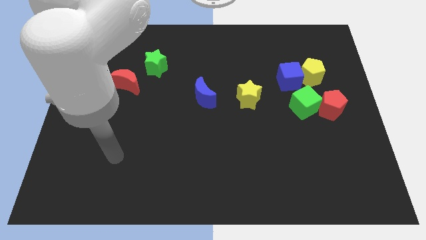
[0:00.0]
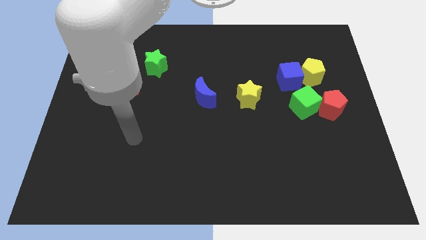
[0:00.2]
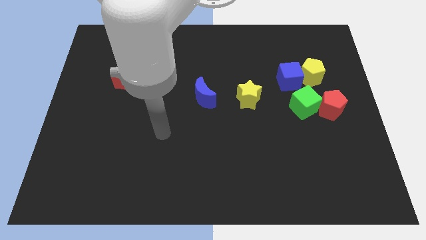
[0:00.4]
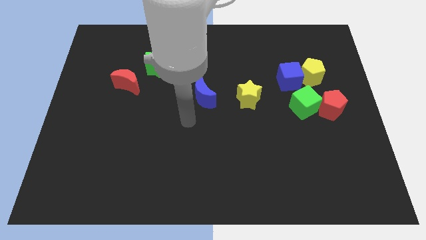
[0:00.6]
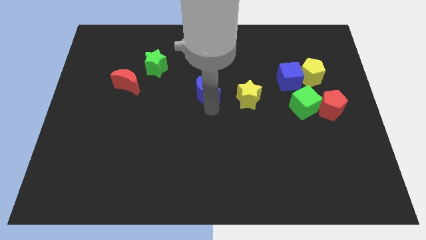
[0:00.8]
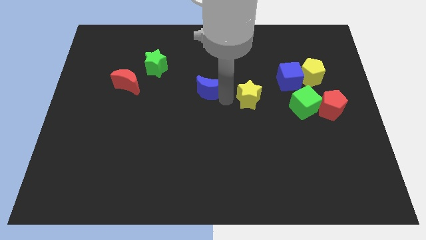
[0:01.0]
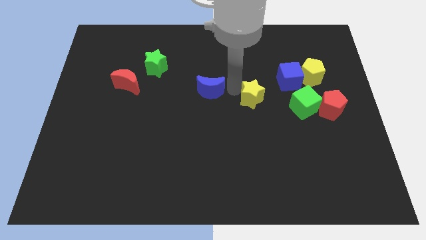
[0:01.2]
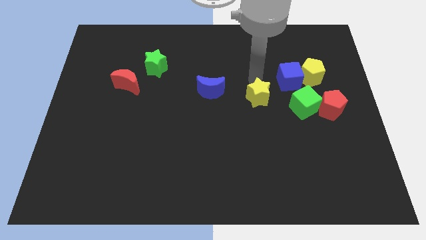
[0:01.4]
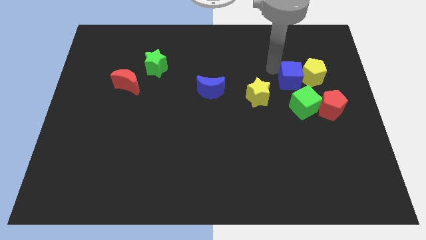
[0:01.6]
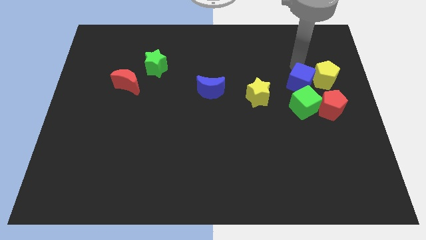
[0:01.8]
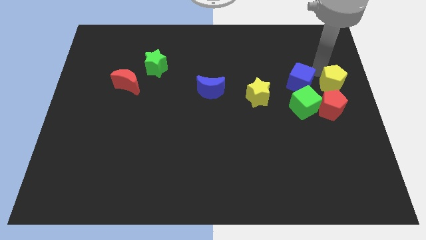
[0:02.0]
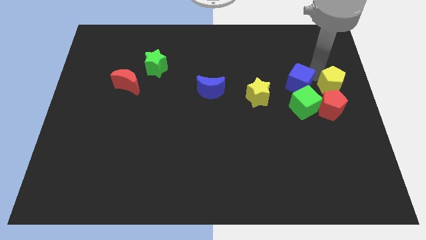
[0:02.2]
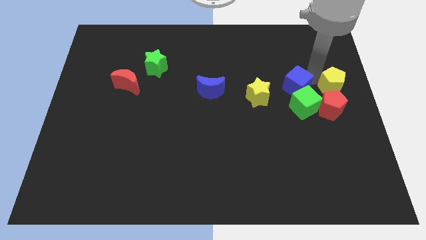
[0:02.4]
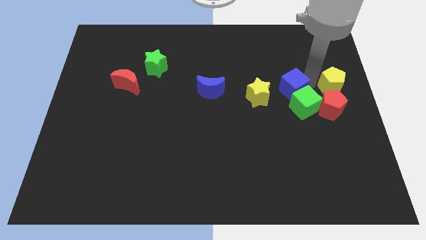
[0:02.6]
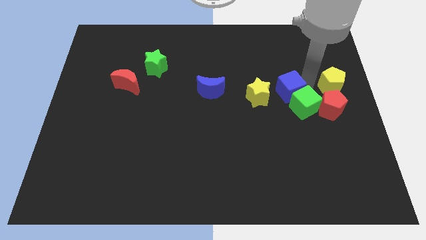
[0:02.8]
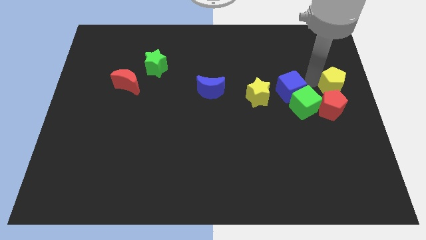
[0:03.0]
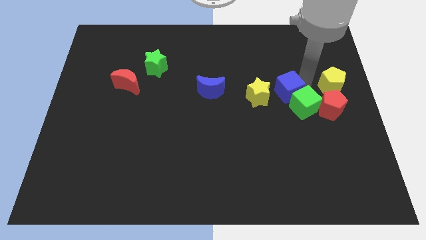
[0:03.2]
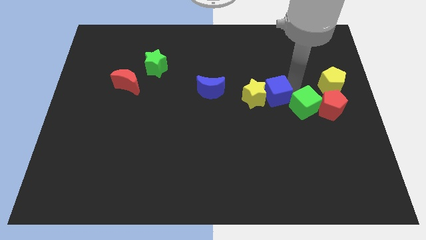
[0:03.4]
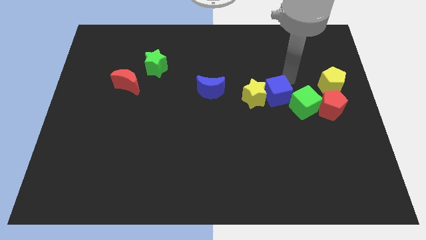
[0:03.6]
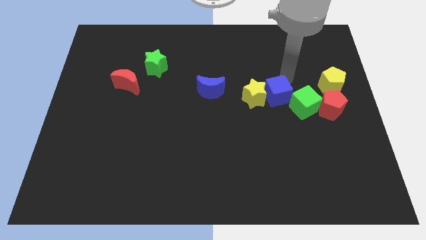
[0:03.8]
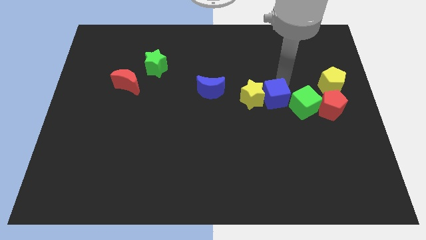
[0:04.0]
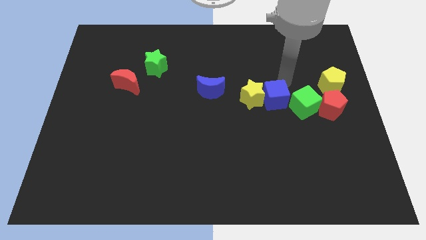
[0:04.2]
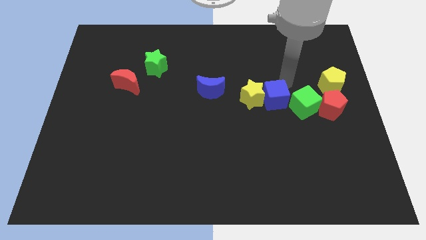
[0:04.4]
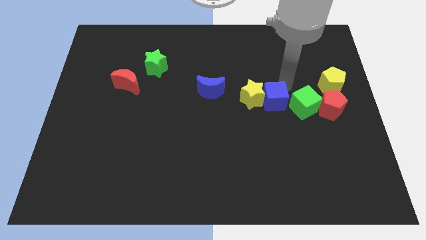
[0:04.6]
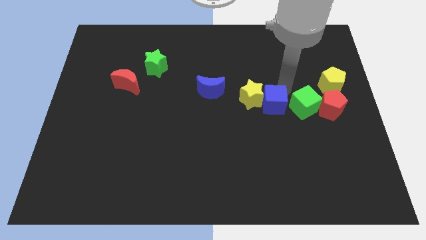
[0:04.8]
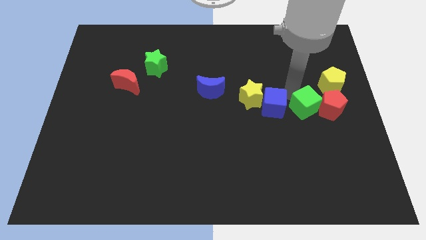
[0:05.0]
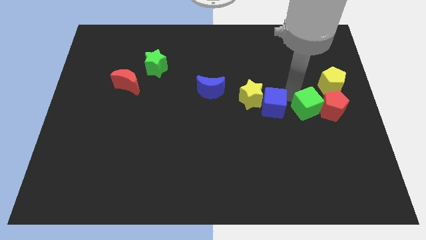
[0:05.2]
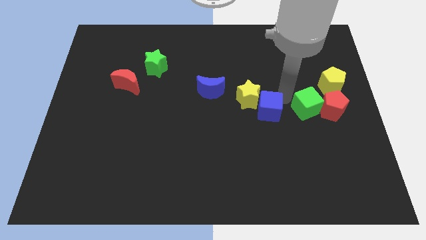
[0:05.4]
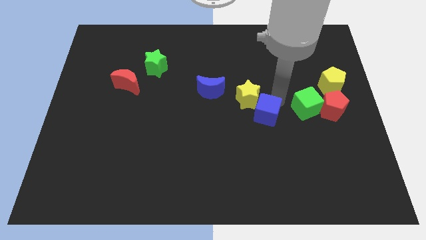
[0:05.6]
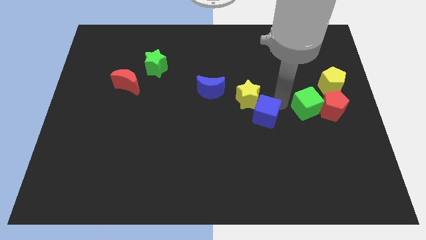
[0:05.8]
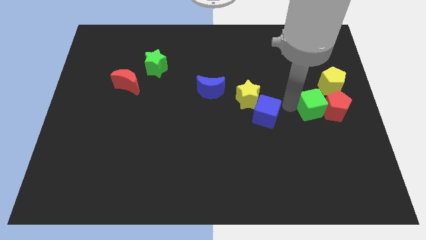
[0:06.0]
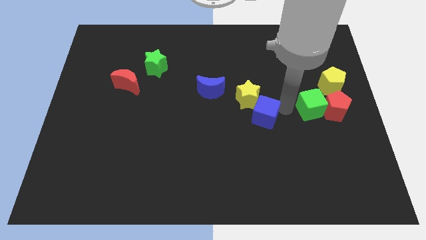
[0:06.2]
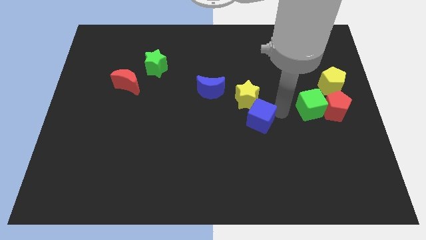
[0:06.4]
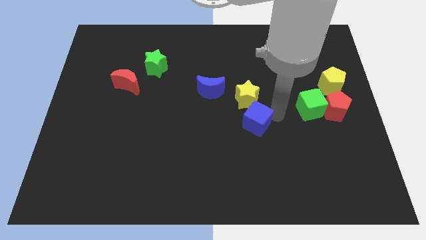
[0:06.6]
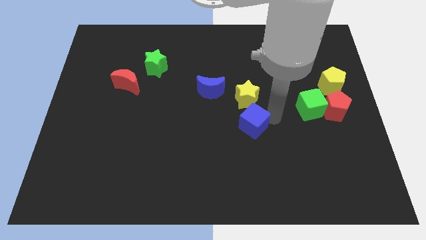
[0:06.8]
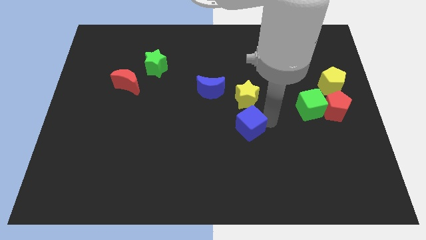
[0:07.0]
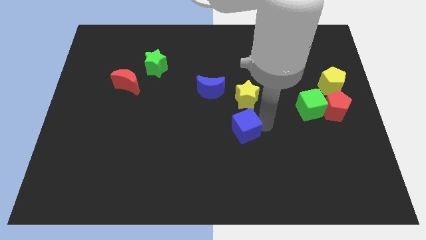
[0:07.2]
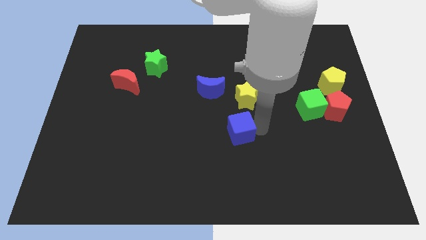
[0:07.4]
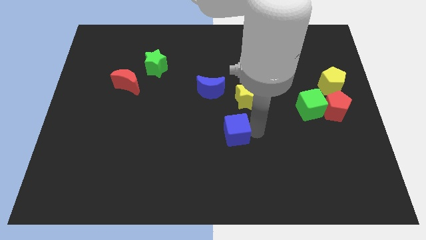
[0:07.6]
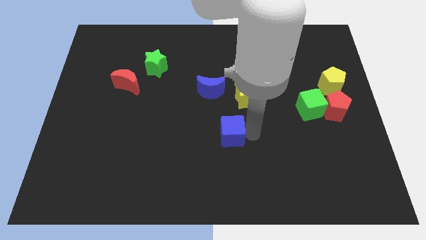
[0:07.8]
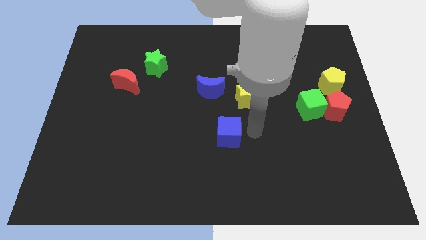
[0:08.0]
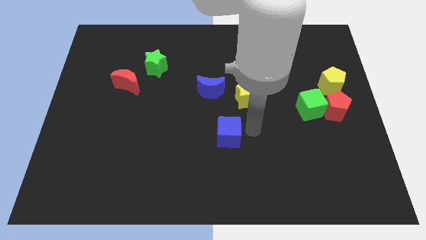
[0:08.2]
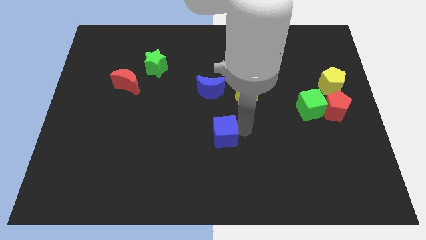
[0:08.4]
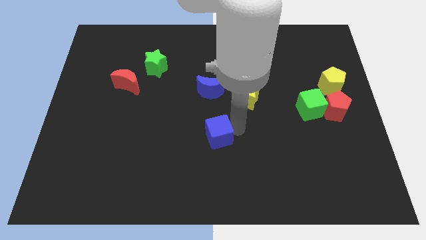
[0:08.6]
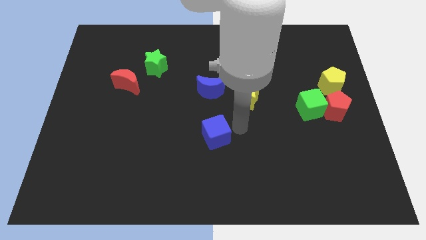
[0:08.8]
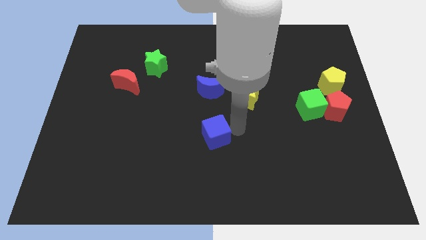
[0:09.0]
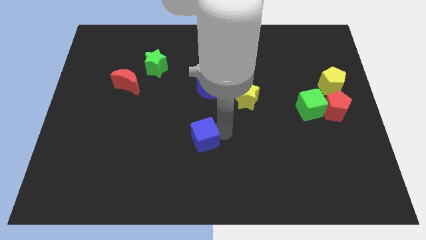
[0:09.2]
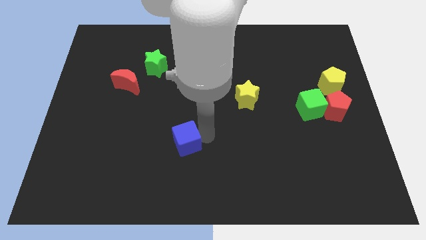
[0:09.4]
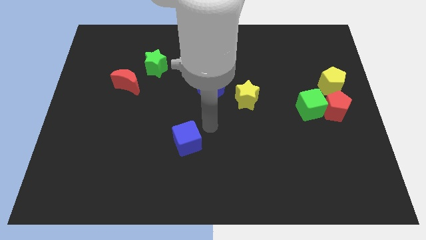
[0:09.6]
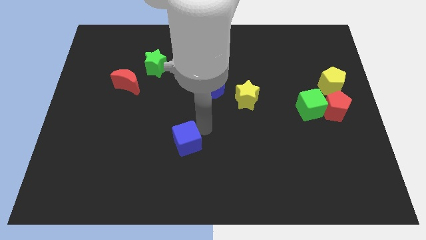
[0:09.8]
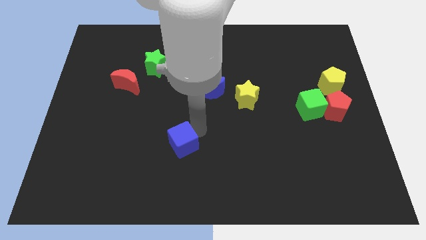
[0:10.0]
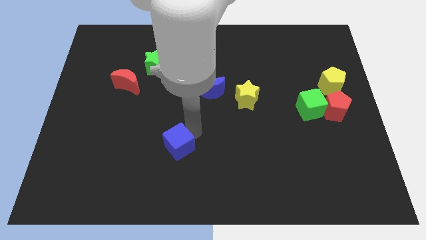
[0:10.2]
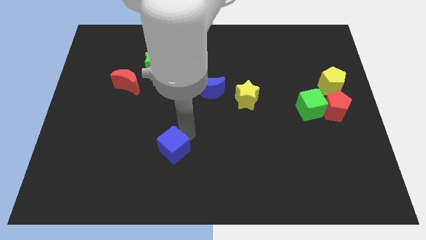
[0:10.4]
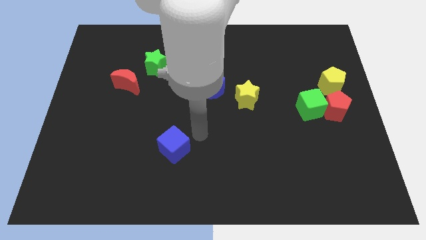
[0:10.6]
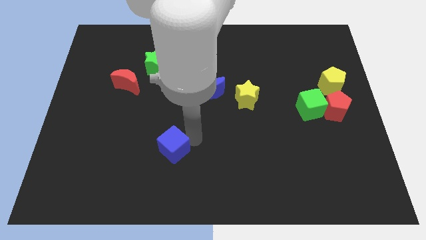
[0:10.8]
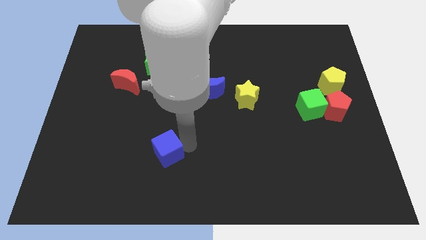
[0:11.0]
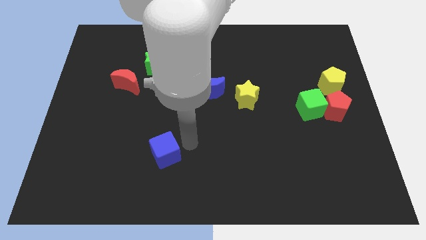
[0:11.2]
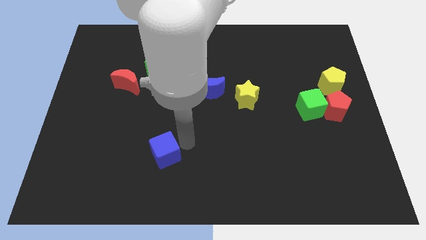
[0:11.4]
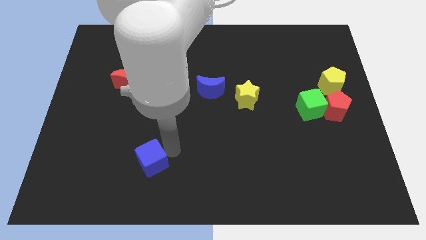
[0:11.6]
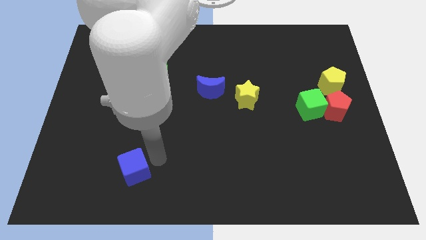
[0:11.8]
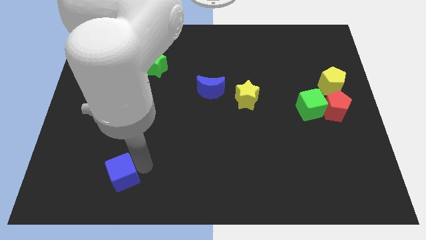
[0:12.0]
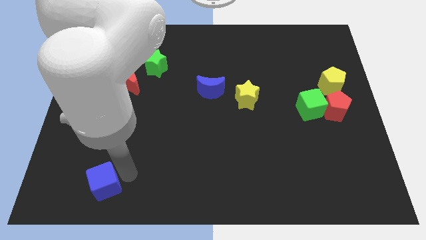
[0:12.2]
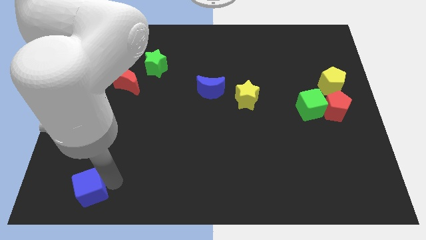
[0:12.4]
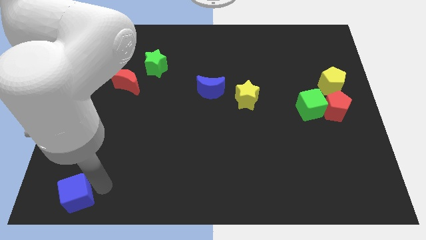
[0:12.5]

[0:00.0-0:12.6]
push the blue cube to the bottom left

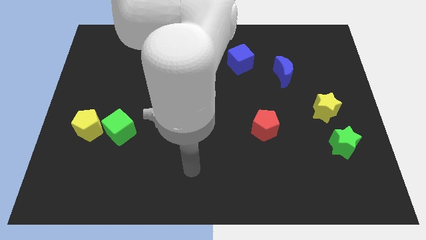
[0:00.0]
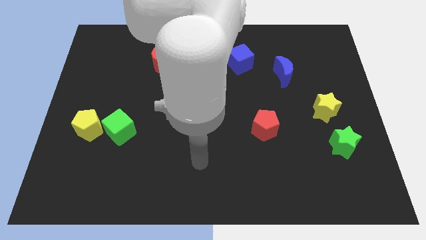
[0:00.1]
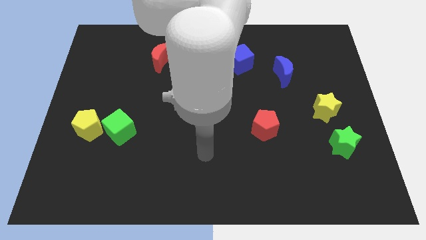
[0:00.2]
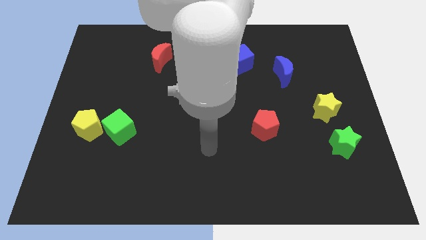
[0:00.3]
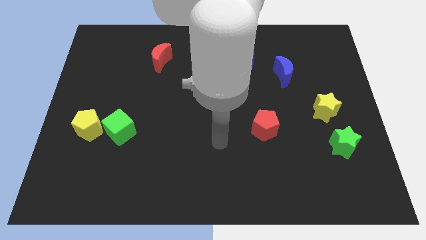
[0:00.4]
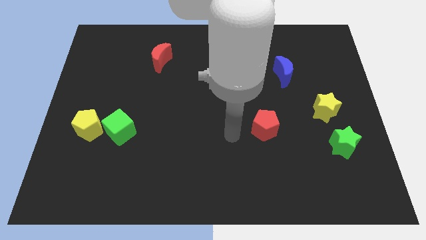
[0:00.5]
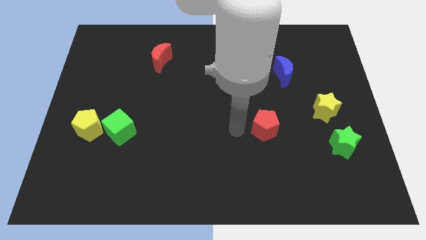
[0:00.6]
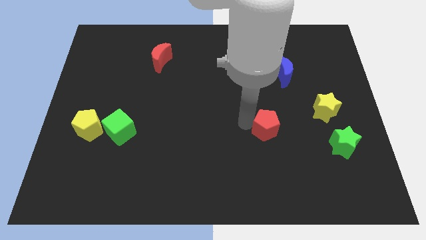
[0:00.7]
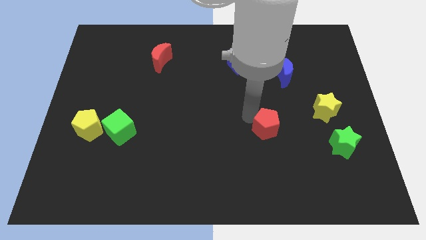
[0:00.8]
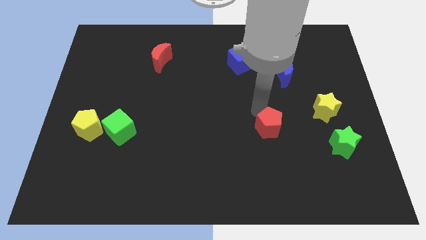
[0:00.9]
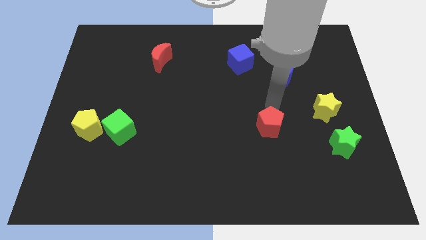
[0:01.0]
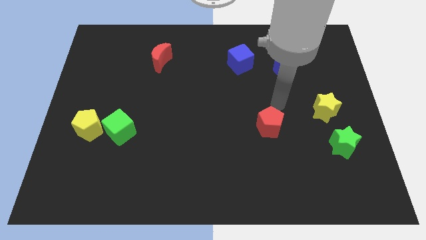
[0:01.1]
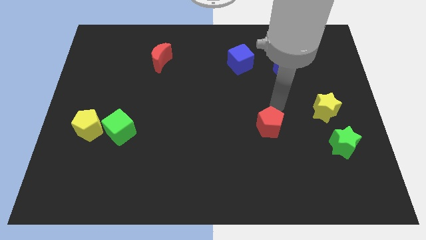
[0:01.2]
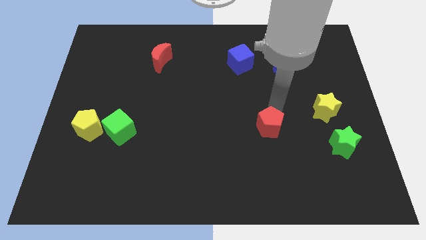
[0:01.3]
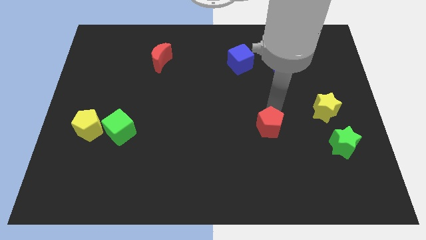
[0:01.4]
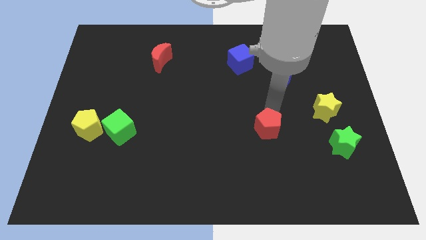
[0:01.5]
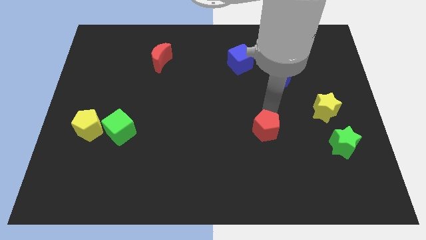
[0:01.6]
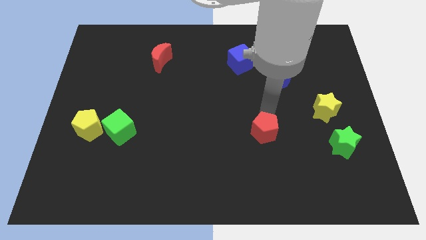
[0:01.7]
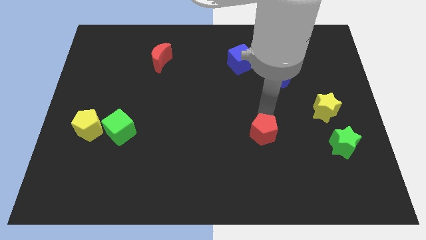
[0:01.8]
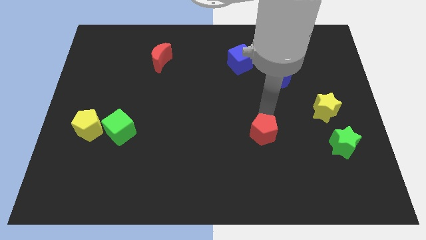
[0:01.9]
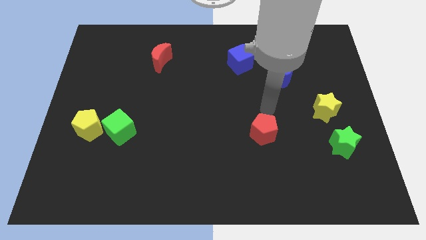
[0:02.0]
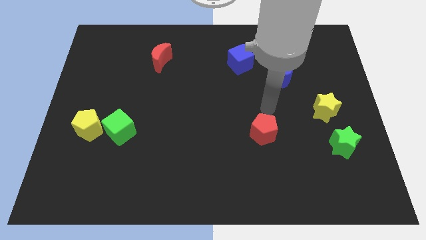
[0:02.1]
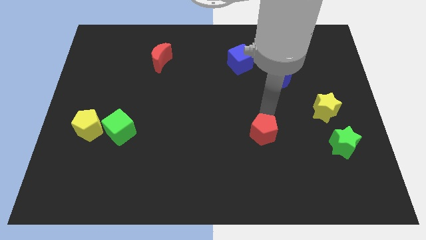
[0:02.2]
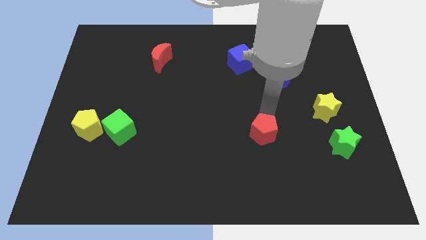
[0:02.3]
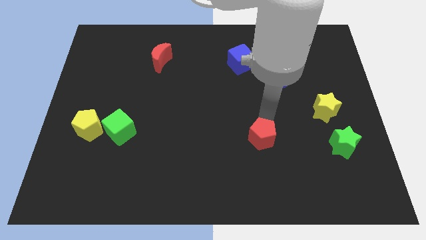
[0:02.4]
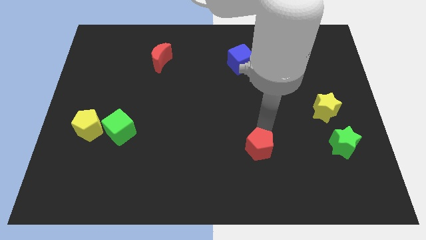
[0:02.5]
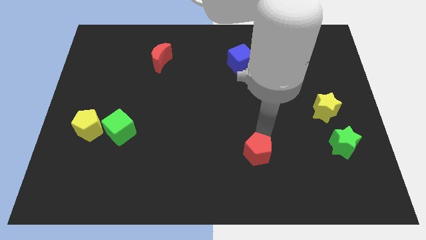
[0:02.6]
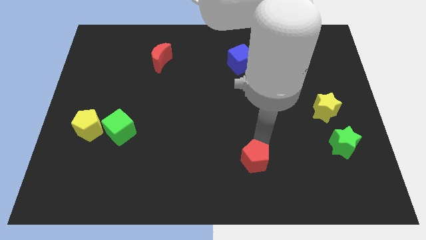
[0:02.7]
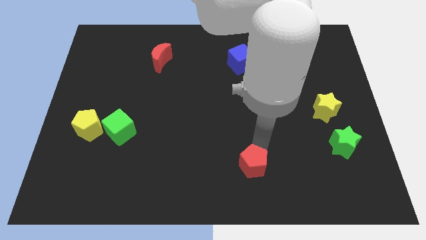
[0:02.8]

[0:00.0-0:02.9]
put the red pentagon to the bottom side
